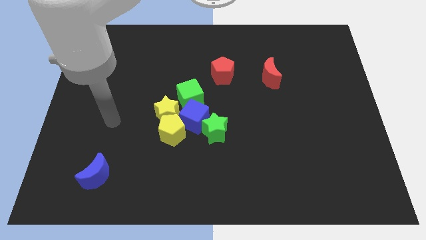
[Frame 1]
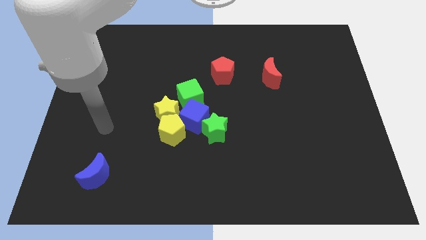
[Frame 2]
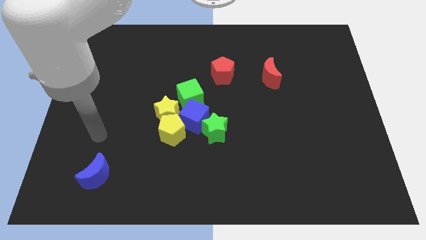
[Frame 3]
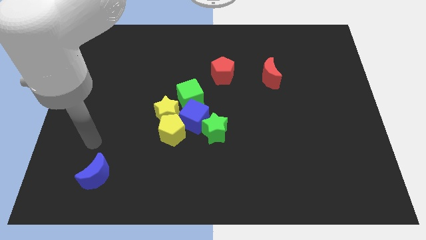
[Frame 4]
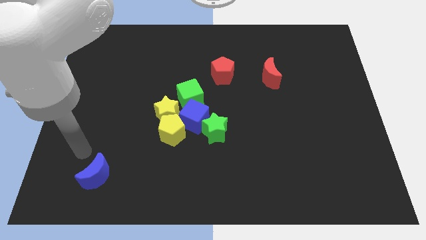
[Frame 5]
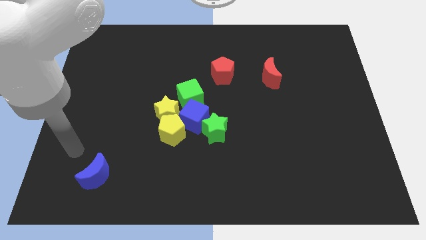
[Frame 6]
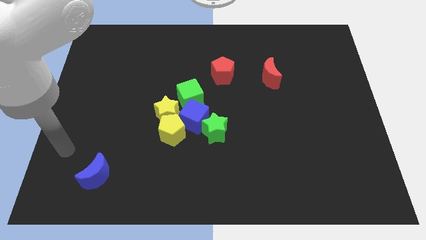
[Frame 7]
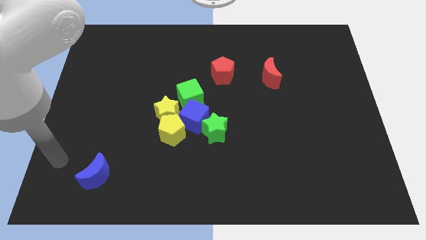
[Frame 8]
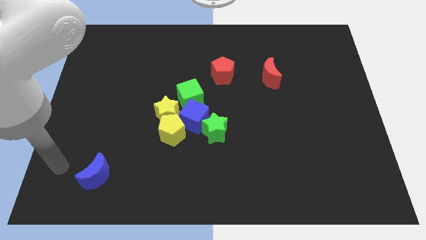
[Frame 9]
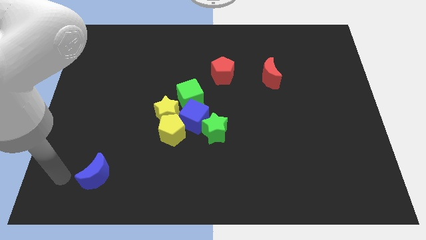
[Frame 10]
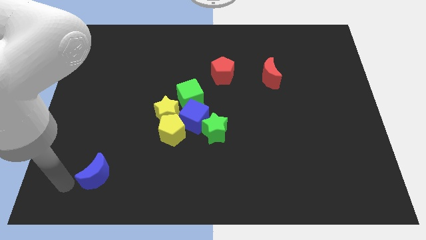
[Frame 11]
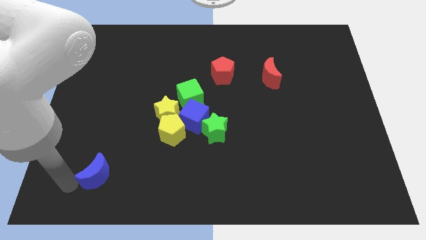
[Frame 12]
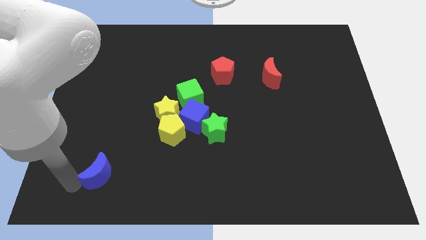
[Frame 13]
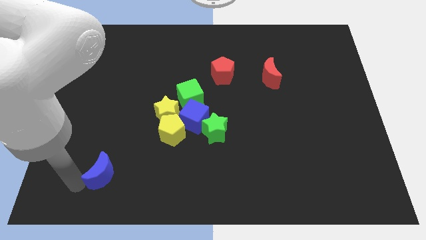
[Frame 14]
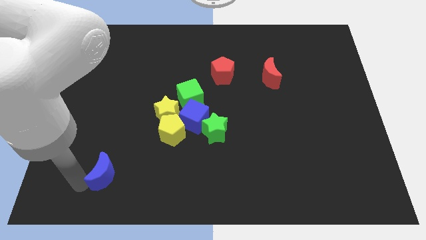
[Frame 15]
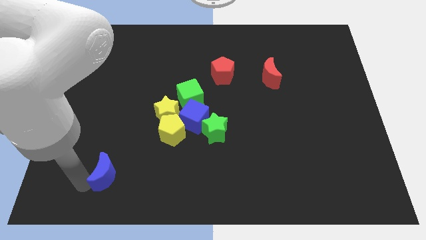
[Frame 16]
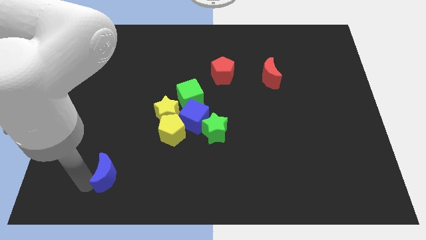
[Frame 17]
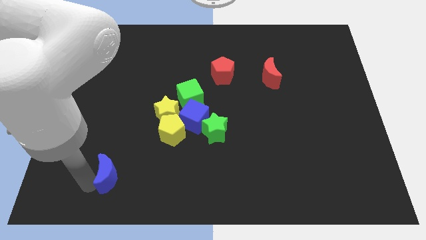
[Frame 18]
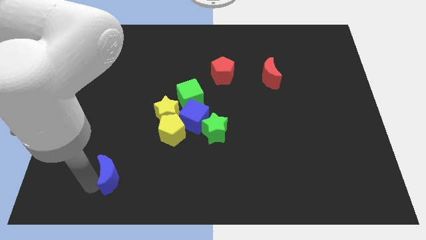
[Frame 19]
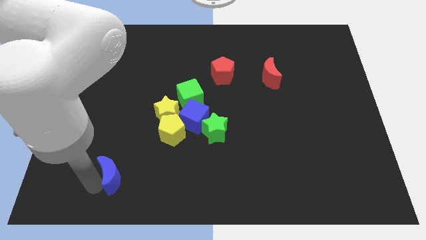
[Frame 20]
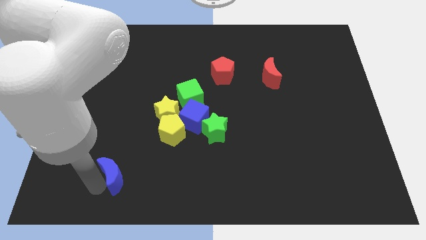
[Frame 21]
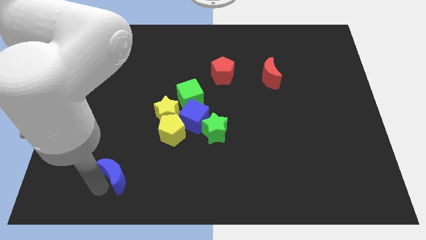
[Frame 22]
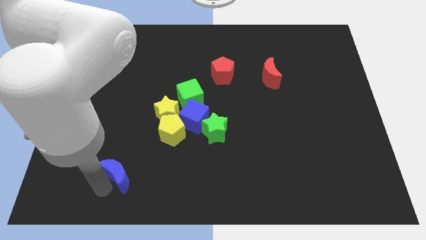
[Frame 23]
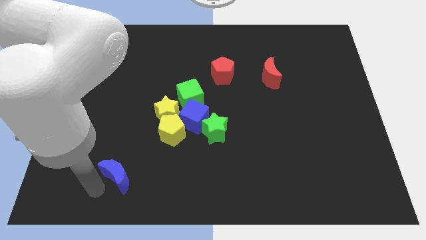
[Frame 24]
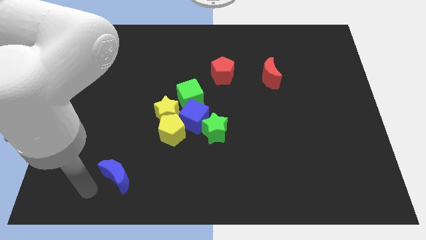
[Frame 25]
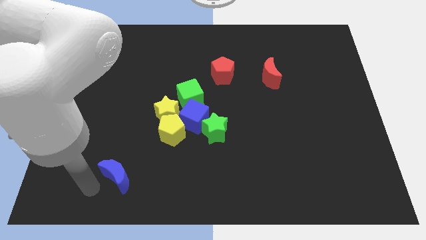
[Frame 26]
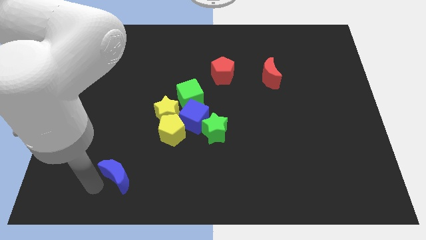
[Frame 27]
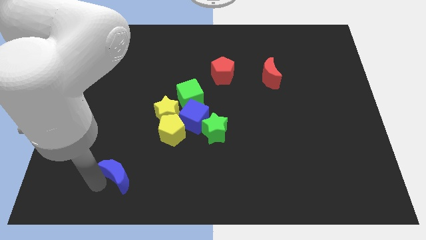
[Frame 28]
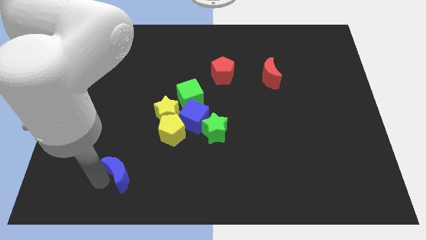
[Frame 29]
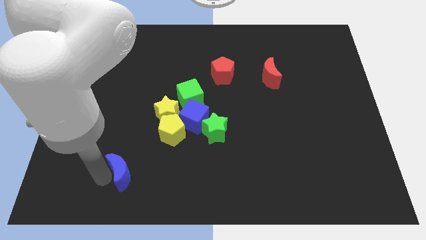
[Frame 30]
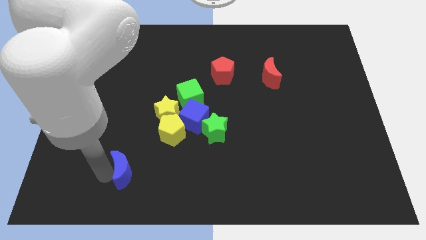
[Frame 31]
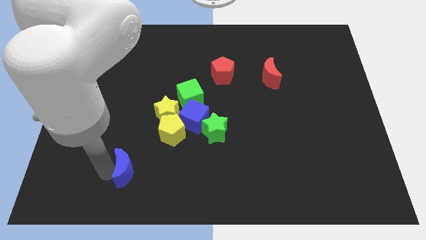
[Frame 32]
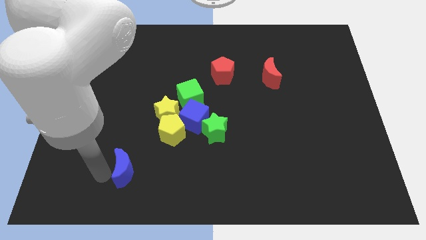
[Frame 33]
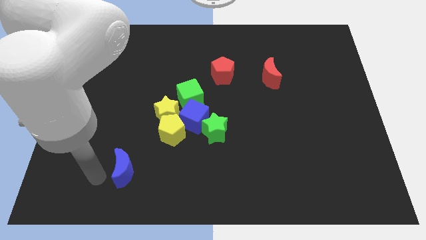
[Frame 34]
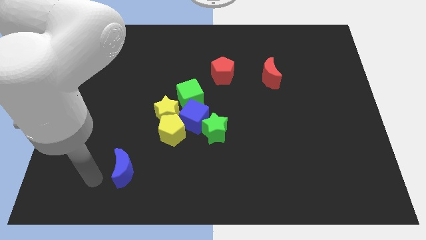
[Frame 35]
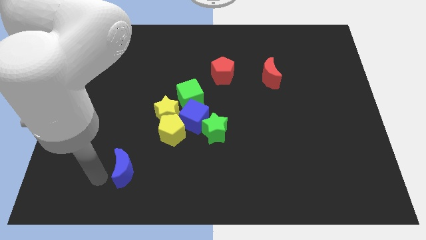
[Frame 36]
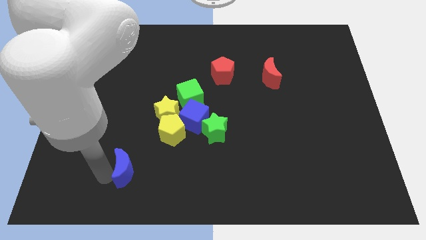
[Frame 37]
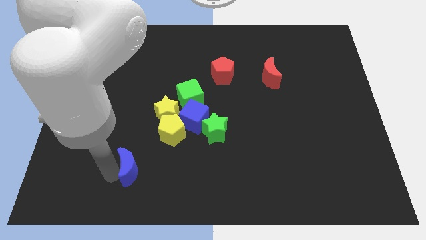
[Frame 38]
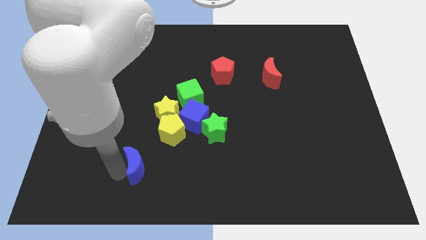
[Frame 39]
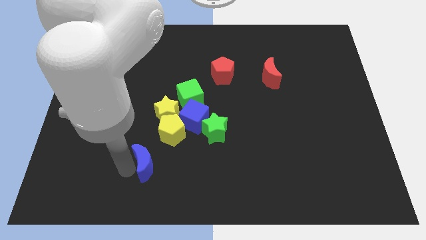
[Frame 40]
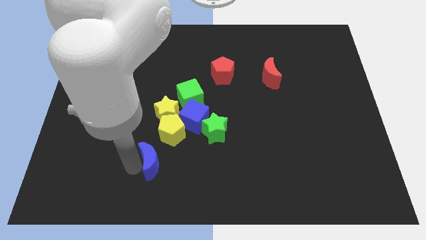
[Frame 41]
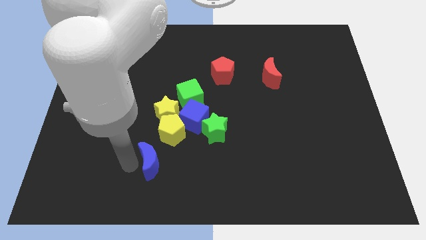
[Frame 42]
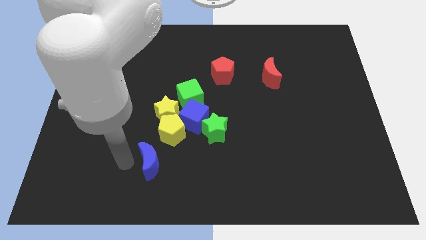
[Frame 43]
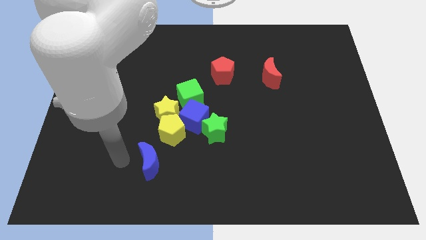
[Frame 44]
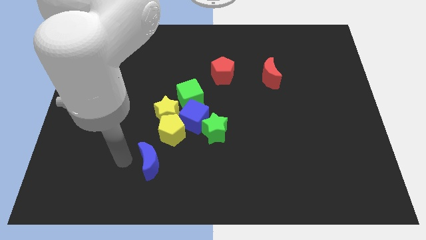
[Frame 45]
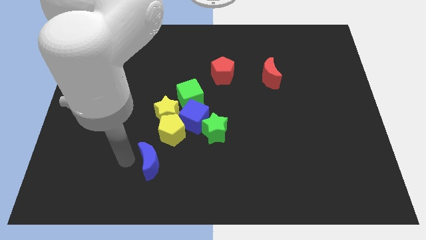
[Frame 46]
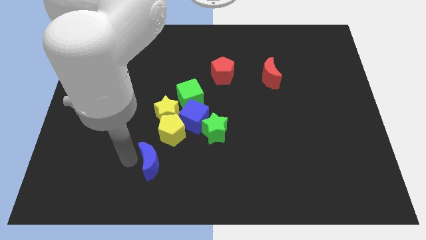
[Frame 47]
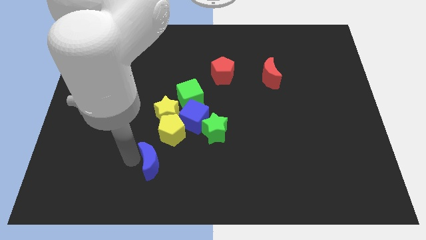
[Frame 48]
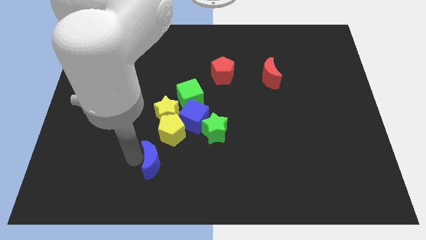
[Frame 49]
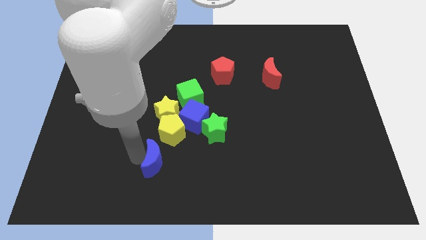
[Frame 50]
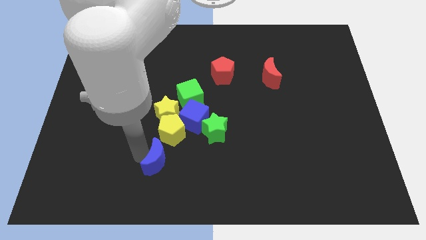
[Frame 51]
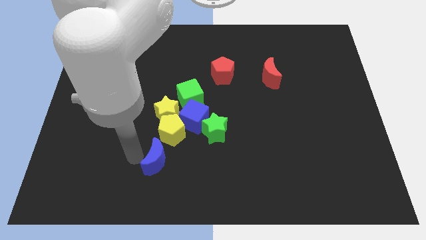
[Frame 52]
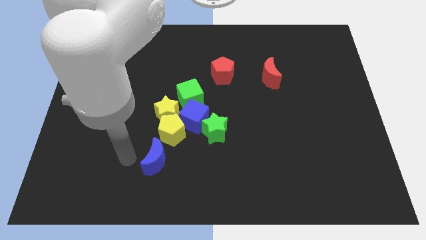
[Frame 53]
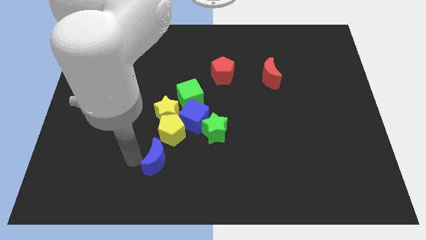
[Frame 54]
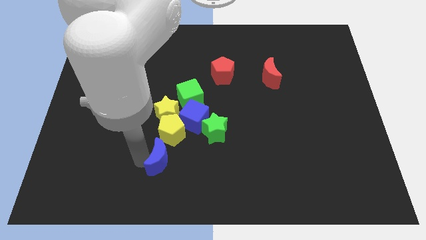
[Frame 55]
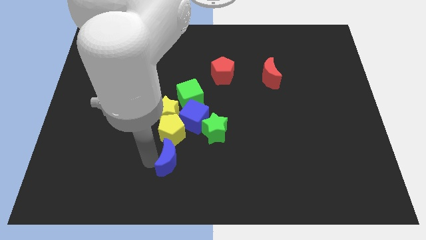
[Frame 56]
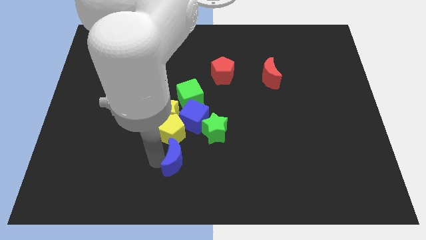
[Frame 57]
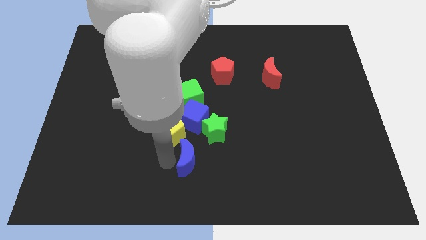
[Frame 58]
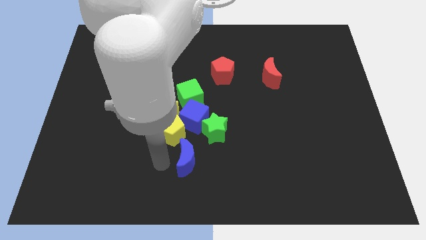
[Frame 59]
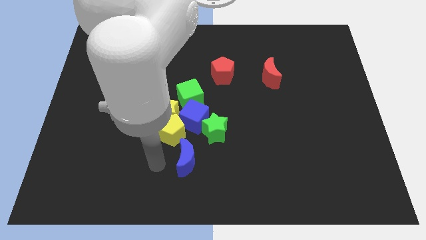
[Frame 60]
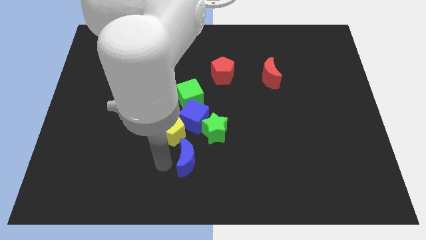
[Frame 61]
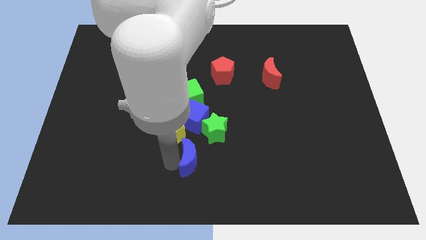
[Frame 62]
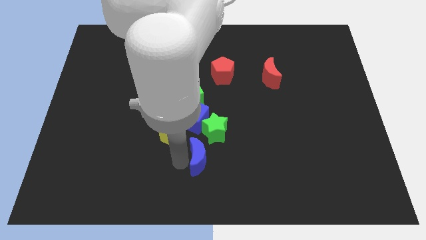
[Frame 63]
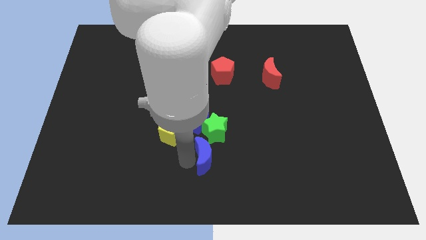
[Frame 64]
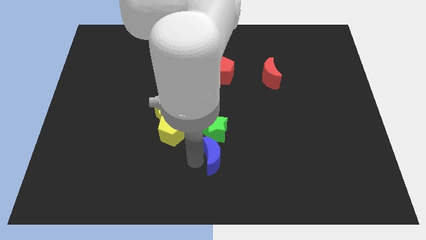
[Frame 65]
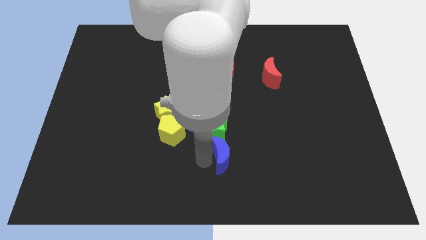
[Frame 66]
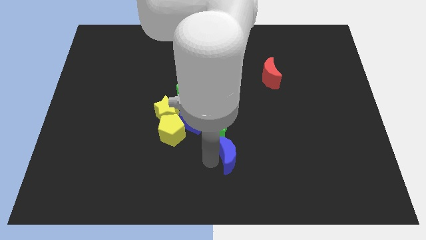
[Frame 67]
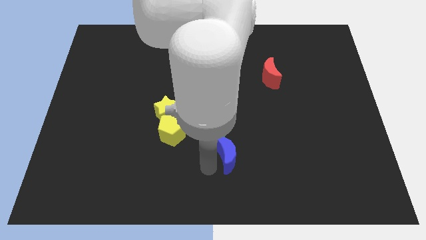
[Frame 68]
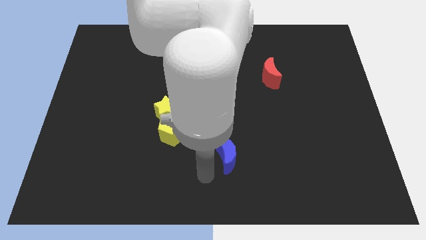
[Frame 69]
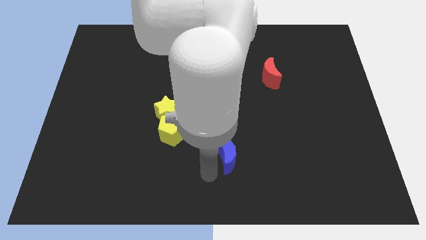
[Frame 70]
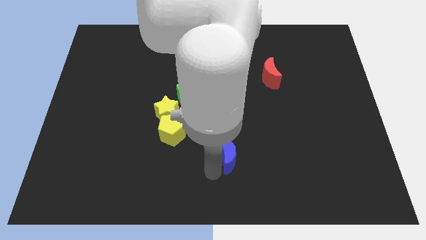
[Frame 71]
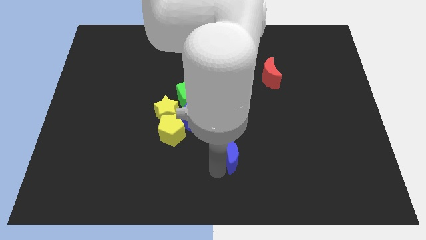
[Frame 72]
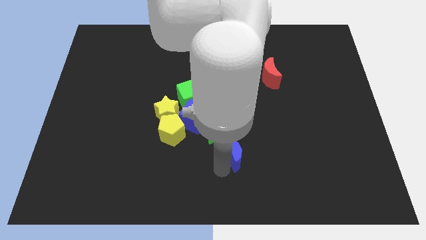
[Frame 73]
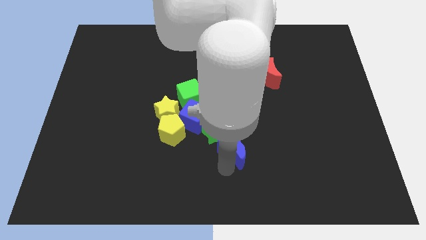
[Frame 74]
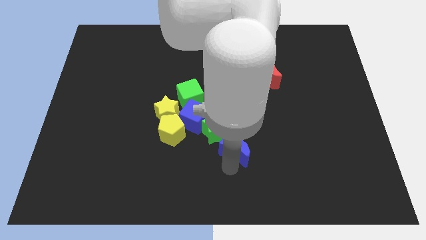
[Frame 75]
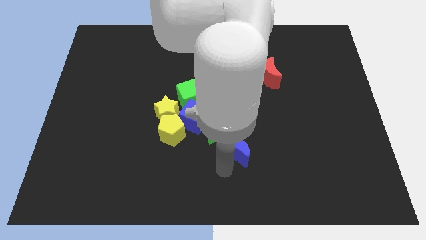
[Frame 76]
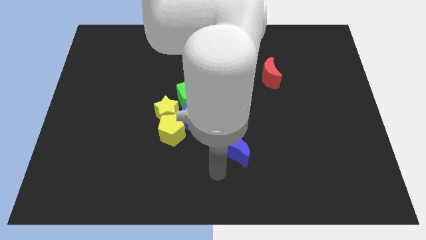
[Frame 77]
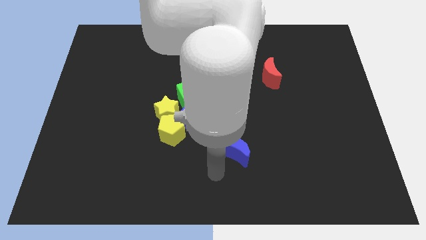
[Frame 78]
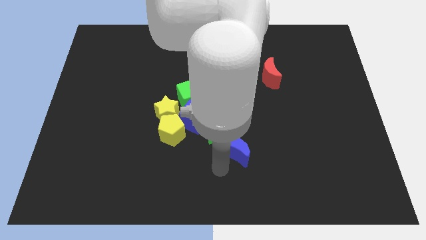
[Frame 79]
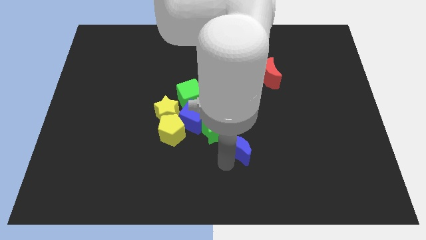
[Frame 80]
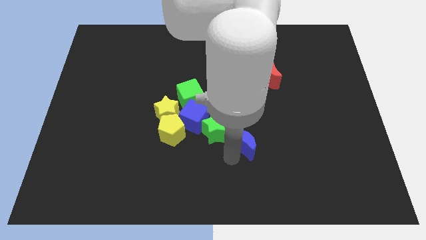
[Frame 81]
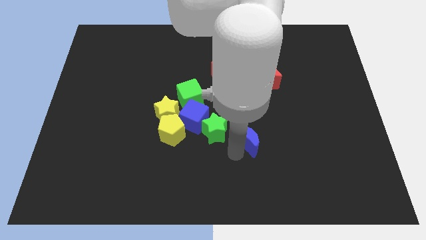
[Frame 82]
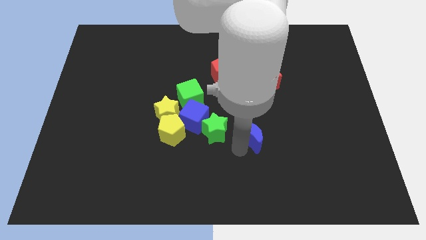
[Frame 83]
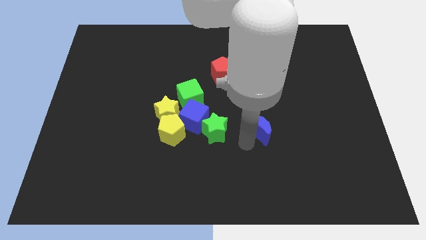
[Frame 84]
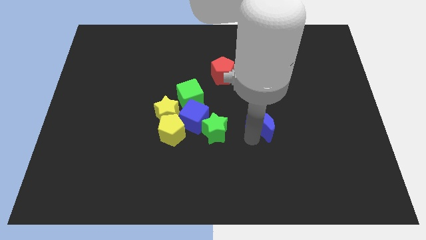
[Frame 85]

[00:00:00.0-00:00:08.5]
slide the blue moon to the bottom of the red moon
